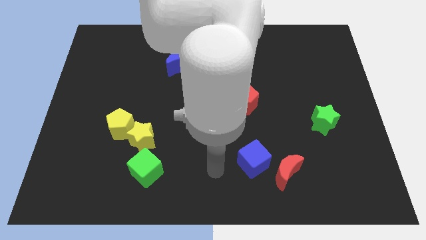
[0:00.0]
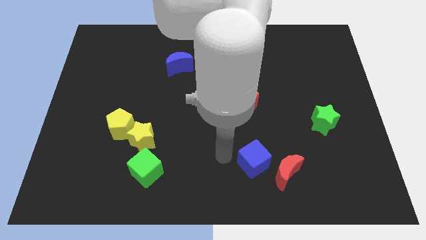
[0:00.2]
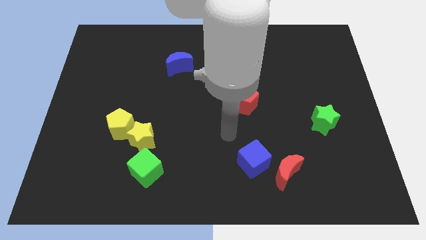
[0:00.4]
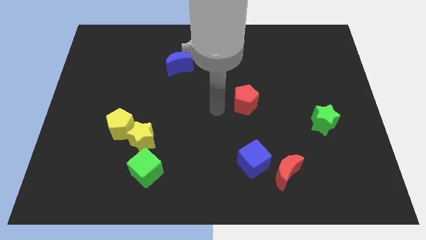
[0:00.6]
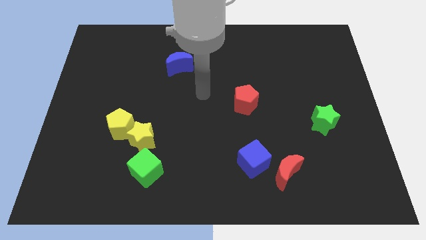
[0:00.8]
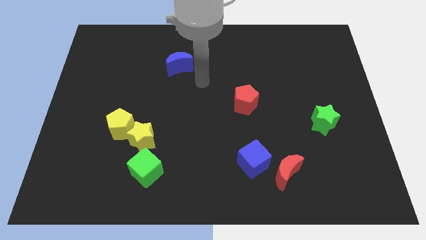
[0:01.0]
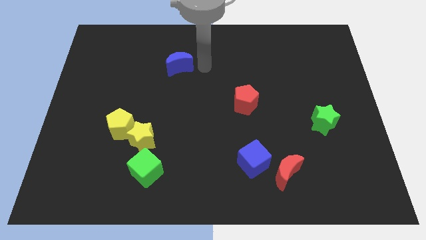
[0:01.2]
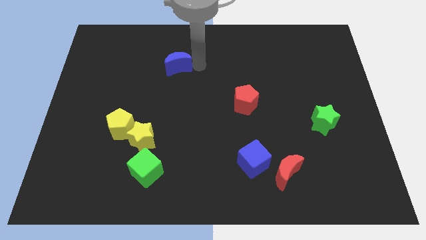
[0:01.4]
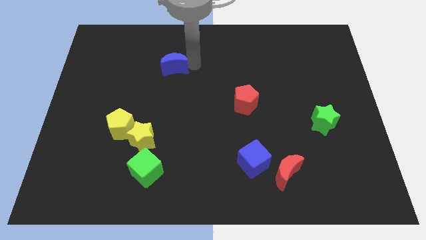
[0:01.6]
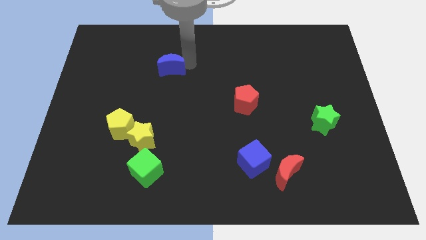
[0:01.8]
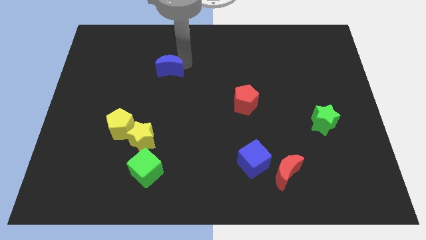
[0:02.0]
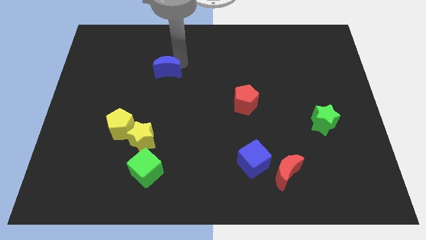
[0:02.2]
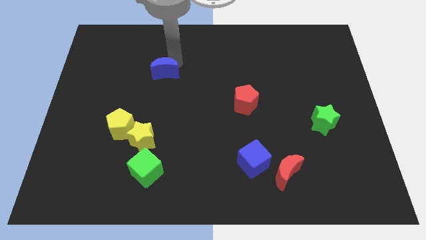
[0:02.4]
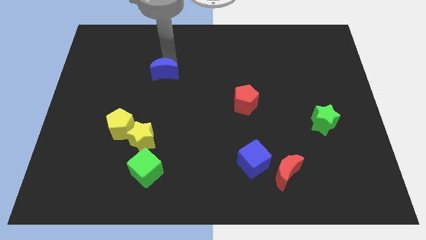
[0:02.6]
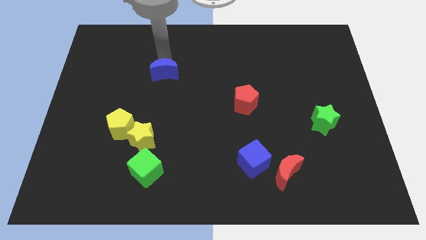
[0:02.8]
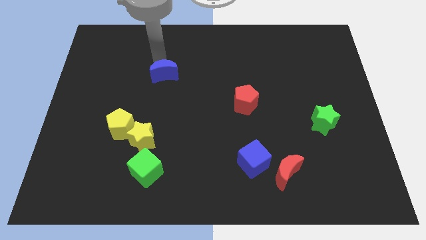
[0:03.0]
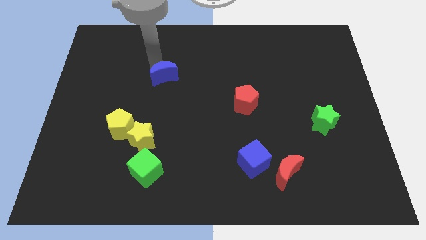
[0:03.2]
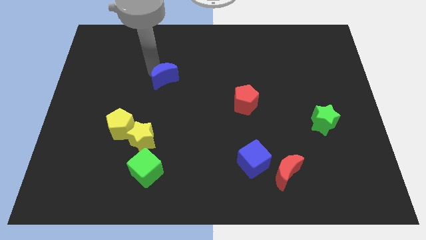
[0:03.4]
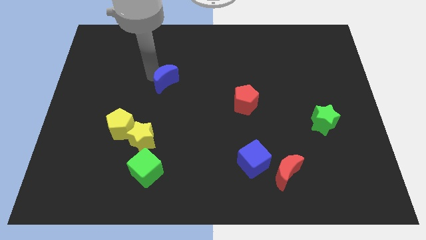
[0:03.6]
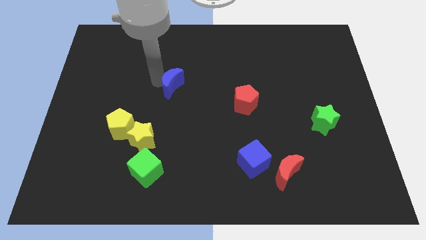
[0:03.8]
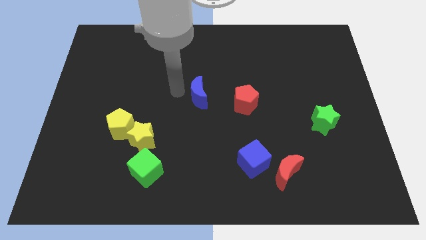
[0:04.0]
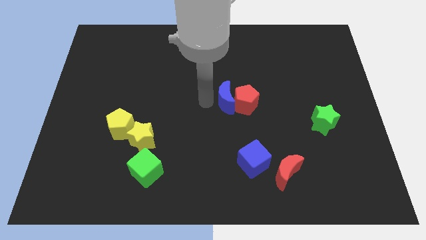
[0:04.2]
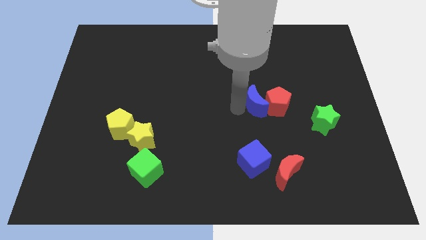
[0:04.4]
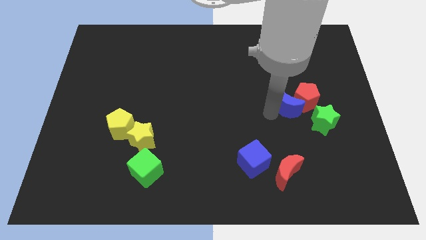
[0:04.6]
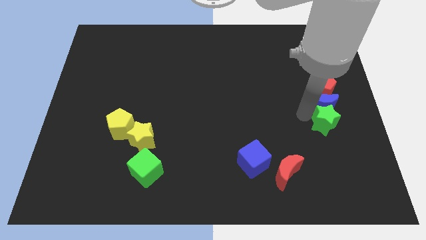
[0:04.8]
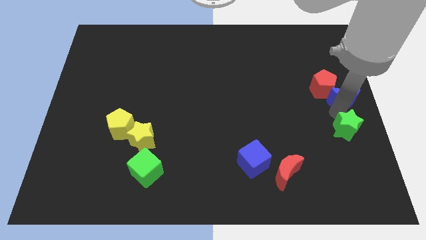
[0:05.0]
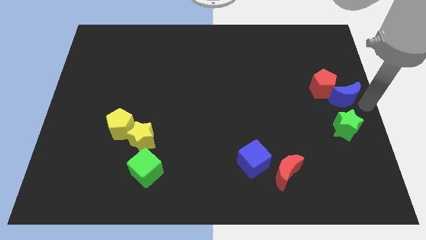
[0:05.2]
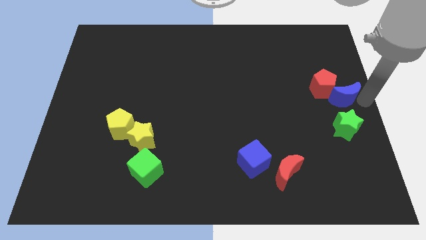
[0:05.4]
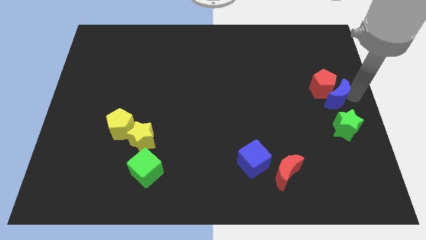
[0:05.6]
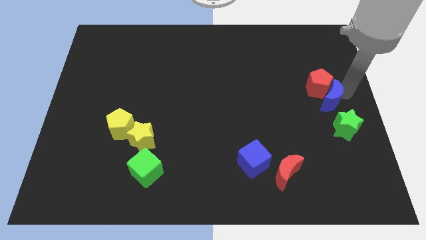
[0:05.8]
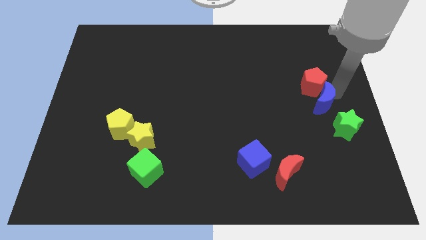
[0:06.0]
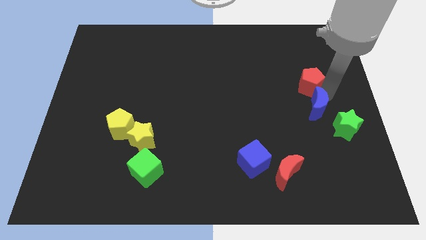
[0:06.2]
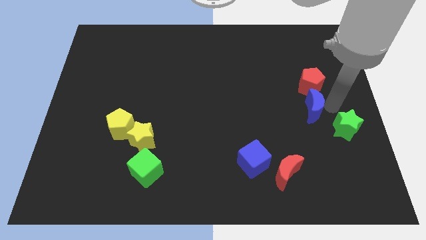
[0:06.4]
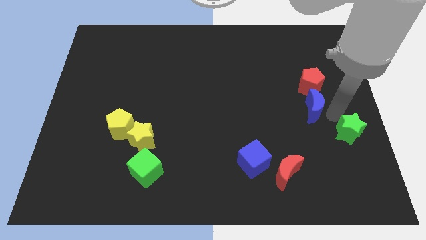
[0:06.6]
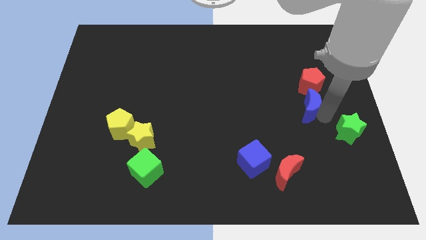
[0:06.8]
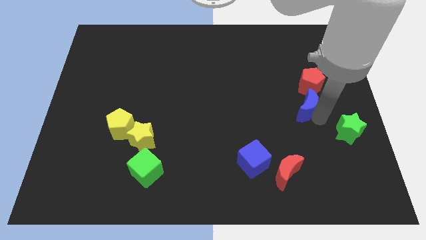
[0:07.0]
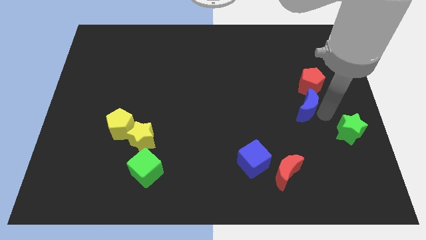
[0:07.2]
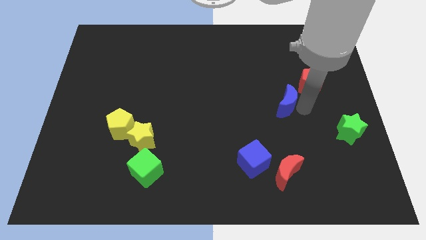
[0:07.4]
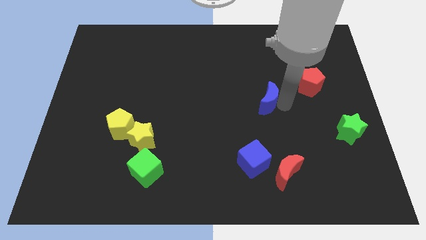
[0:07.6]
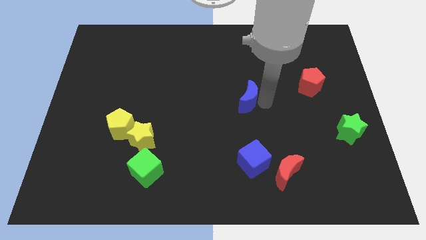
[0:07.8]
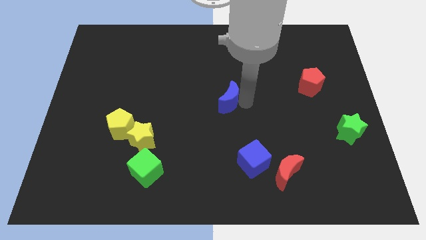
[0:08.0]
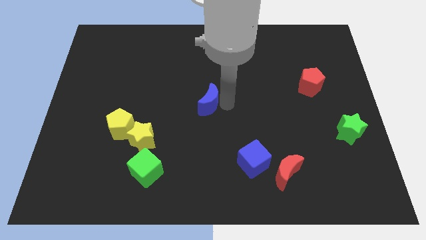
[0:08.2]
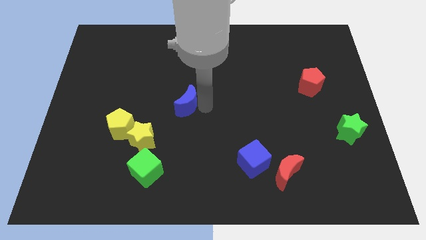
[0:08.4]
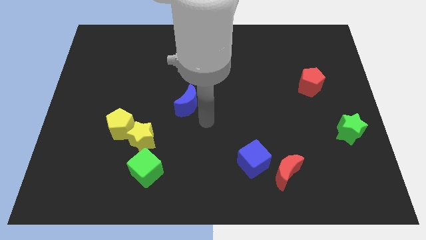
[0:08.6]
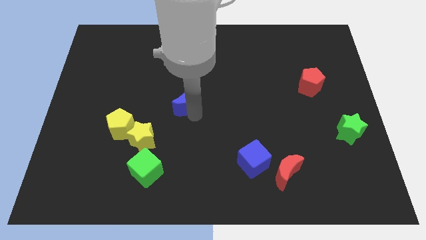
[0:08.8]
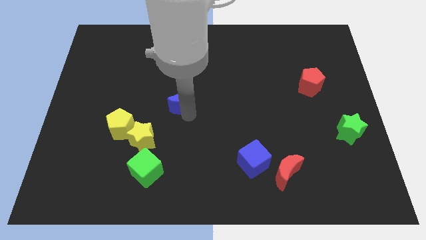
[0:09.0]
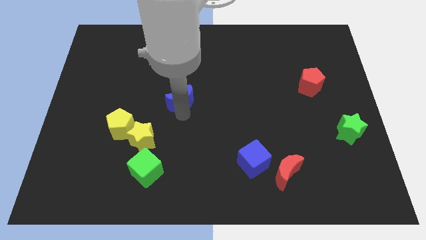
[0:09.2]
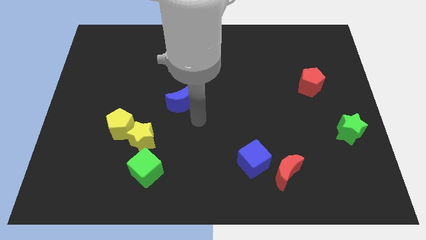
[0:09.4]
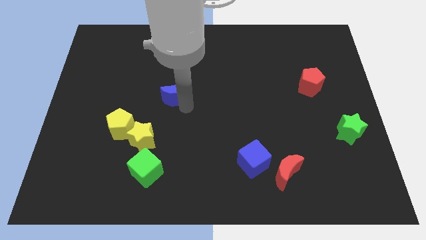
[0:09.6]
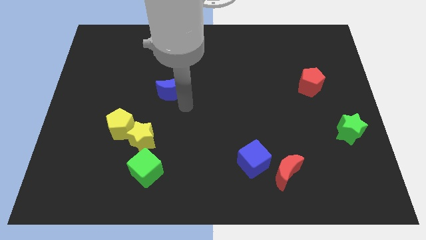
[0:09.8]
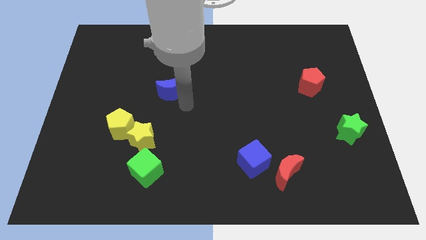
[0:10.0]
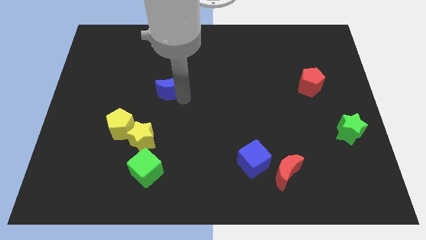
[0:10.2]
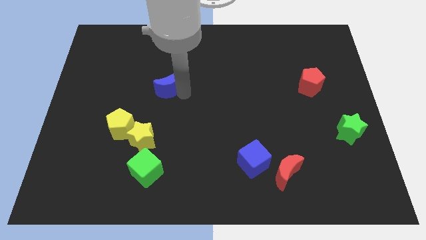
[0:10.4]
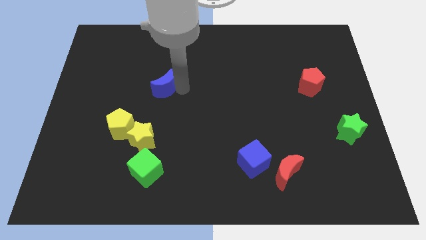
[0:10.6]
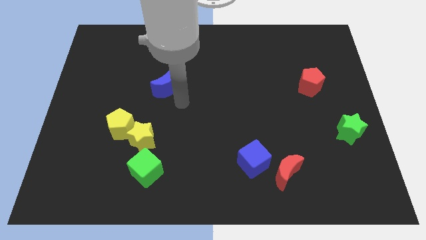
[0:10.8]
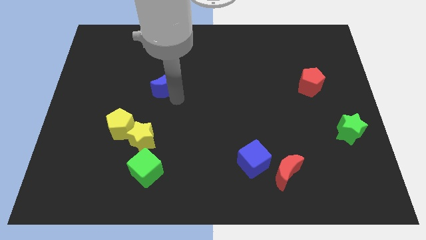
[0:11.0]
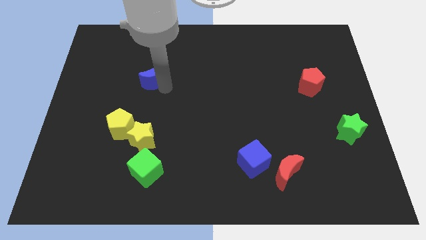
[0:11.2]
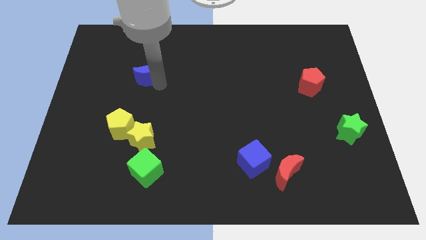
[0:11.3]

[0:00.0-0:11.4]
slightly push the blue moon to the left

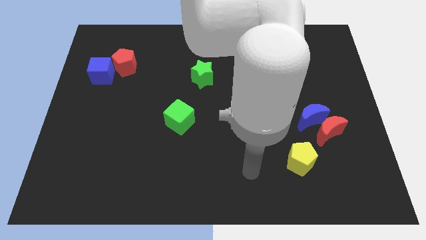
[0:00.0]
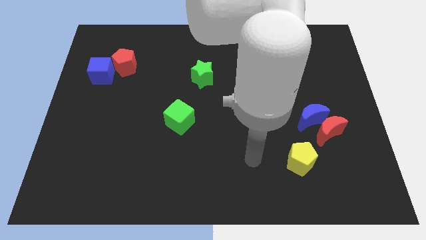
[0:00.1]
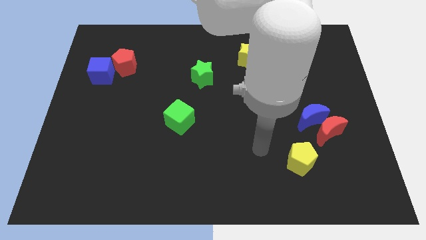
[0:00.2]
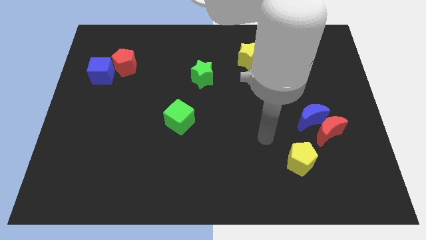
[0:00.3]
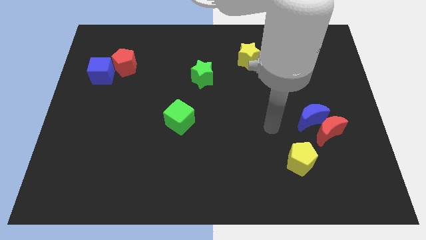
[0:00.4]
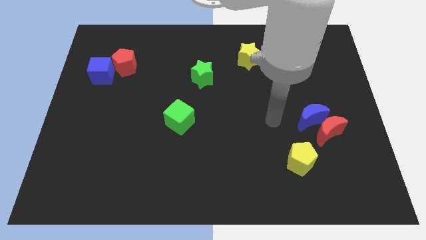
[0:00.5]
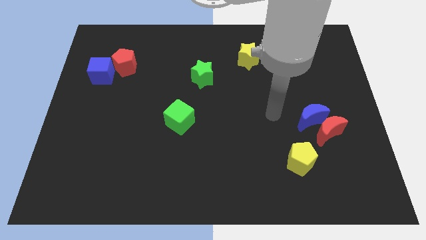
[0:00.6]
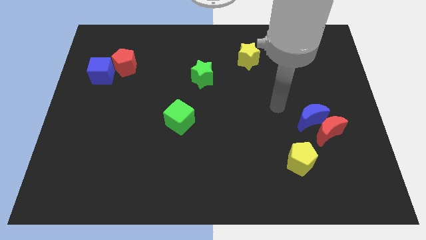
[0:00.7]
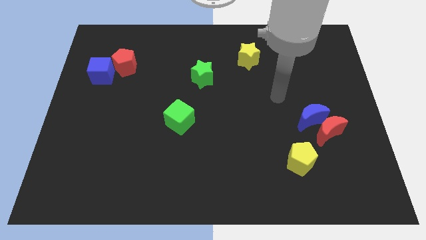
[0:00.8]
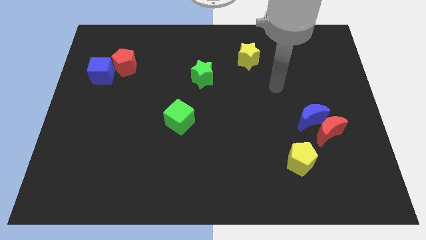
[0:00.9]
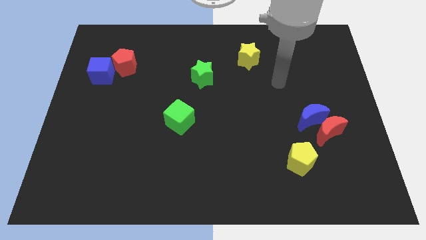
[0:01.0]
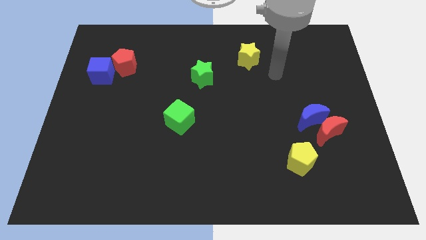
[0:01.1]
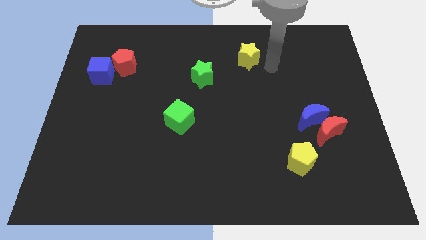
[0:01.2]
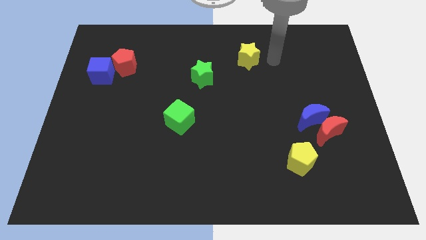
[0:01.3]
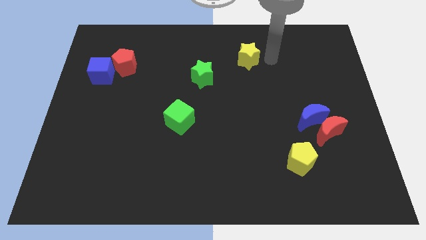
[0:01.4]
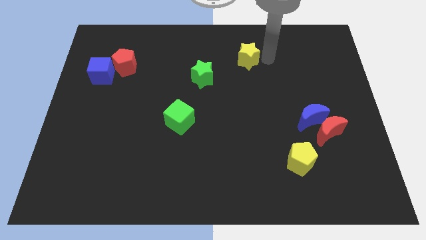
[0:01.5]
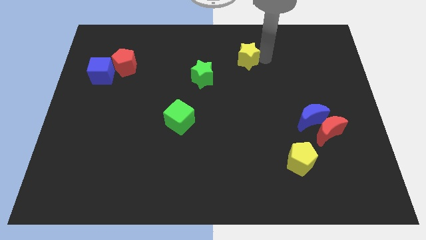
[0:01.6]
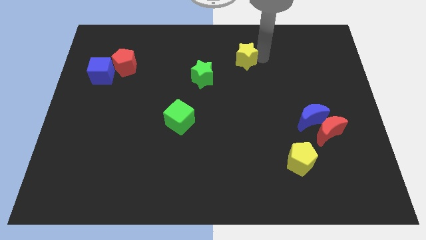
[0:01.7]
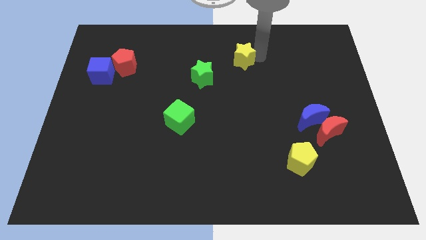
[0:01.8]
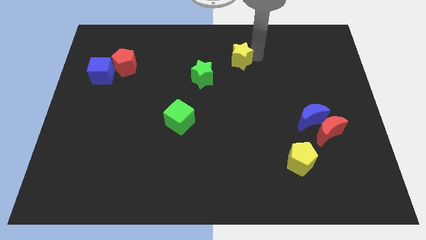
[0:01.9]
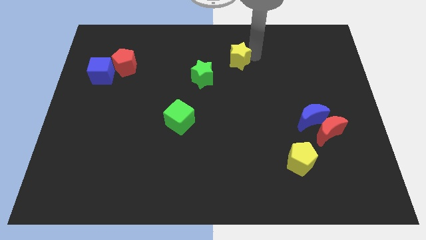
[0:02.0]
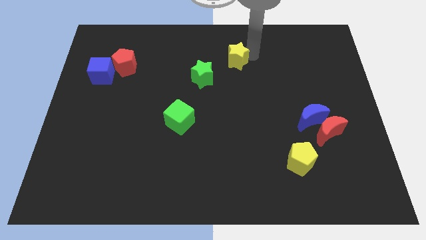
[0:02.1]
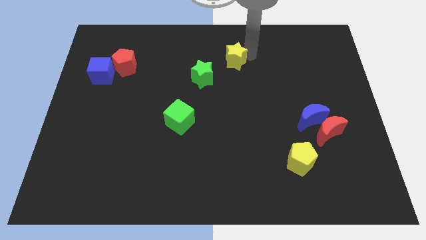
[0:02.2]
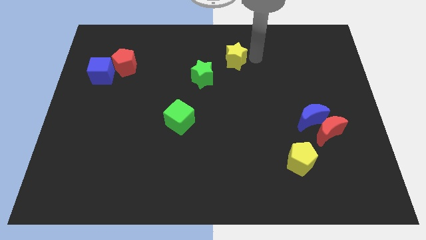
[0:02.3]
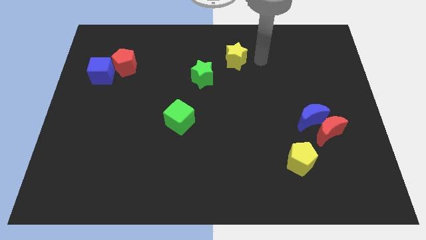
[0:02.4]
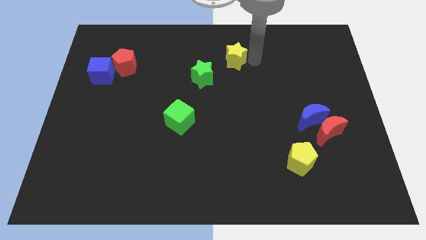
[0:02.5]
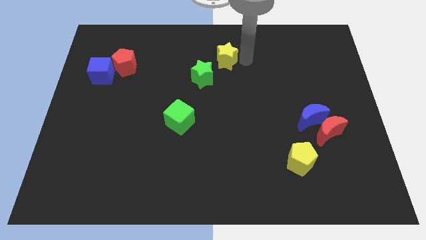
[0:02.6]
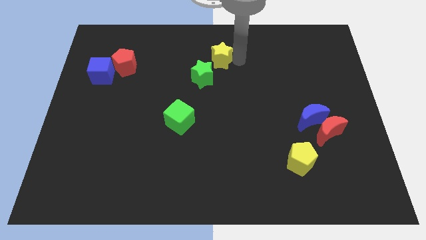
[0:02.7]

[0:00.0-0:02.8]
push the yellow star a bit to the left
